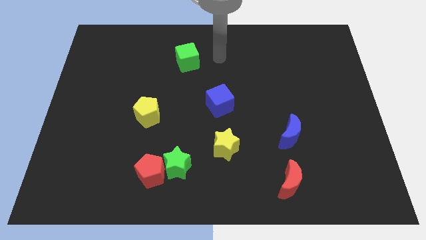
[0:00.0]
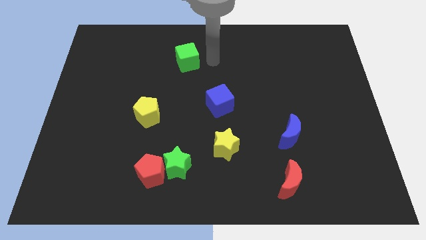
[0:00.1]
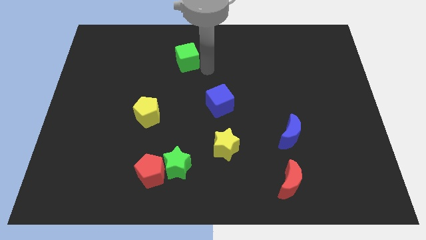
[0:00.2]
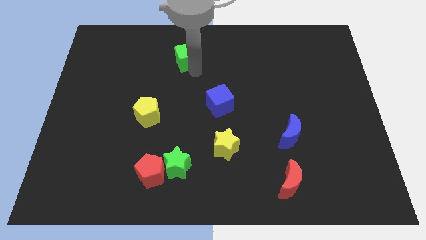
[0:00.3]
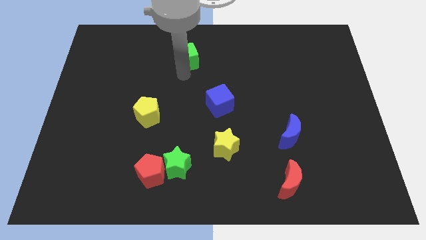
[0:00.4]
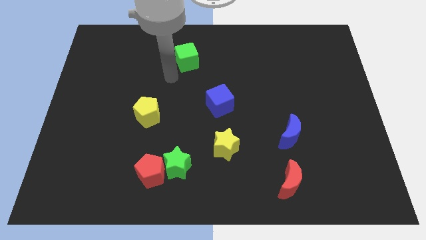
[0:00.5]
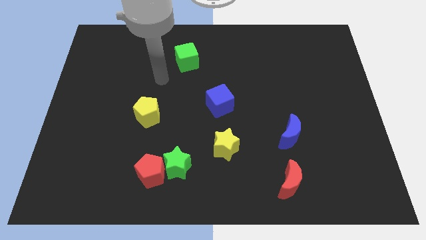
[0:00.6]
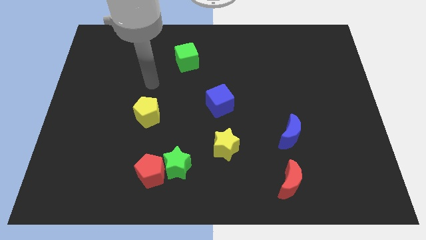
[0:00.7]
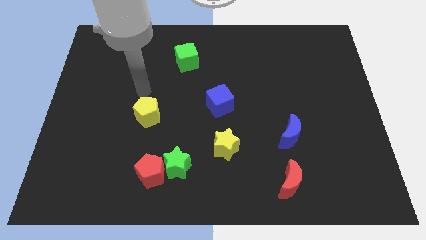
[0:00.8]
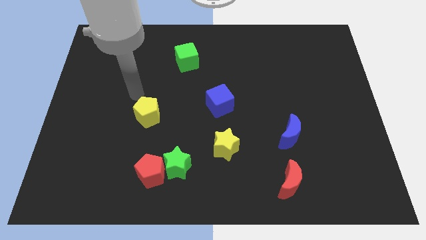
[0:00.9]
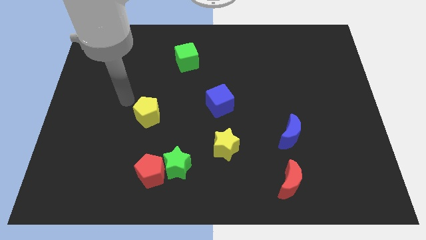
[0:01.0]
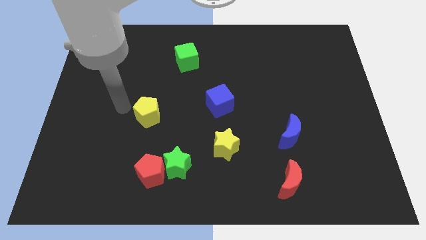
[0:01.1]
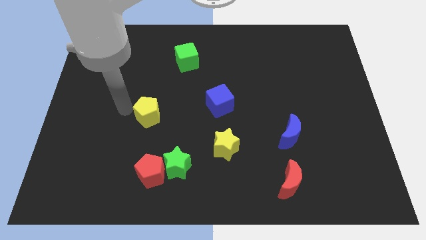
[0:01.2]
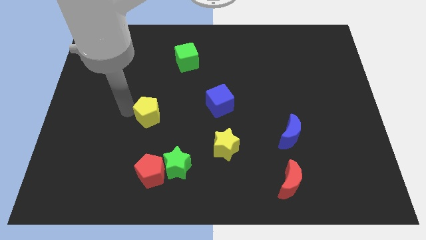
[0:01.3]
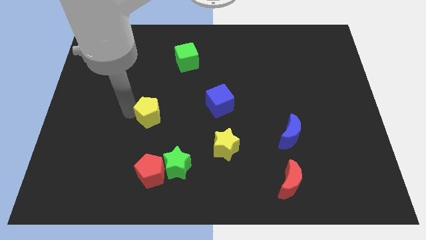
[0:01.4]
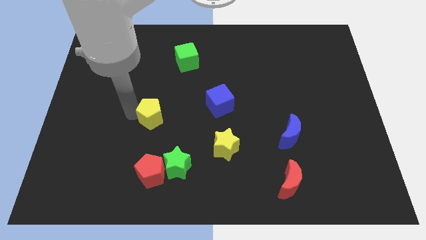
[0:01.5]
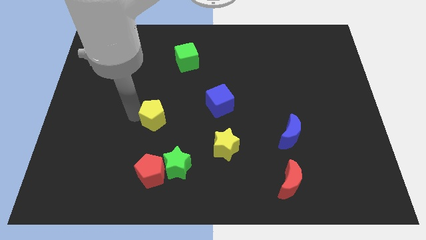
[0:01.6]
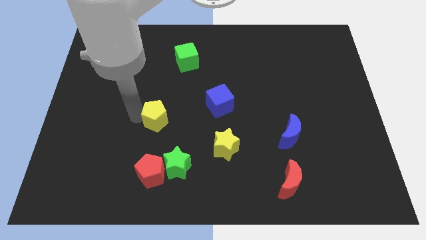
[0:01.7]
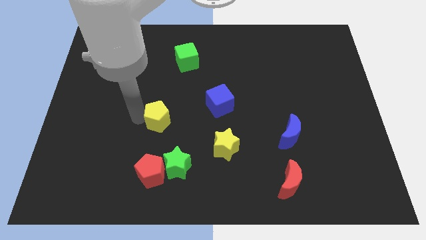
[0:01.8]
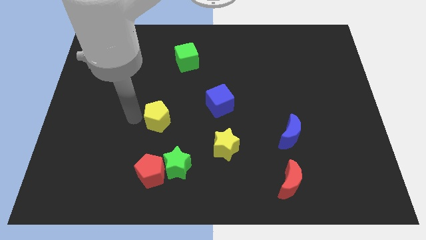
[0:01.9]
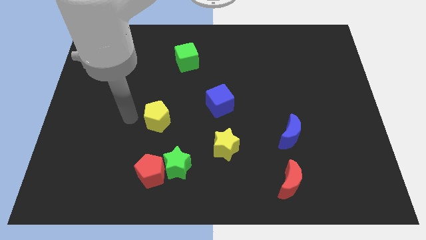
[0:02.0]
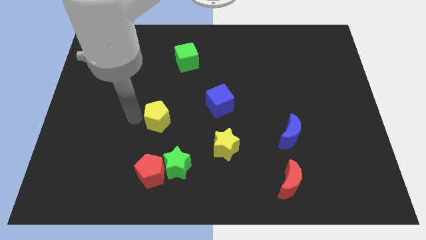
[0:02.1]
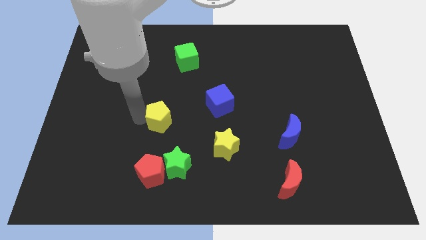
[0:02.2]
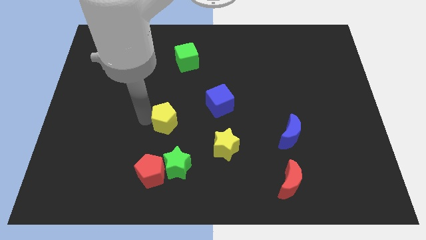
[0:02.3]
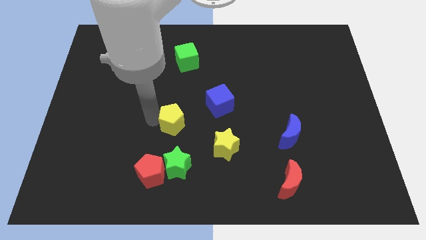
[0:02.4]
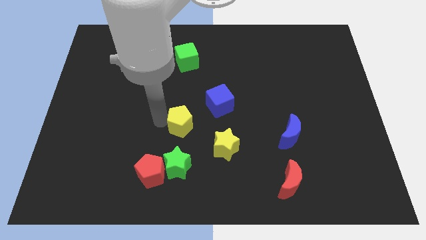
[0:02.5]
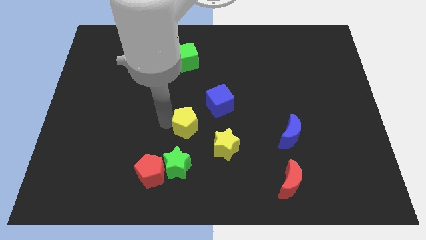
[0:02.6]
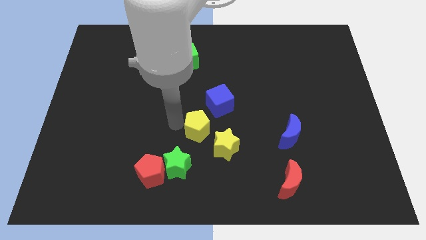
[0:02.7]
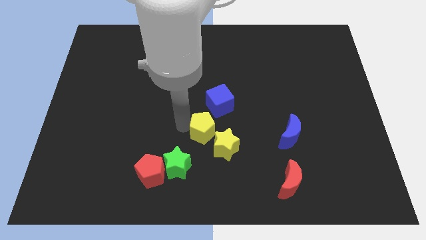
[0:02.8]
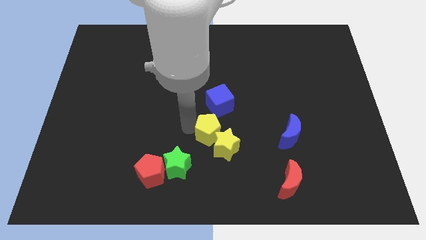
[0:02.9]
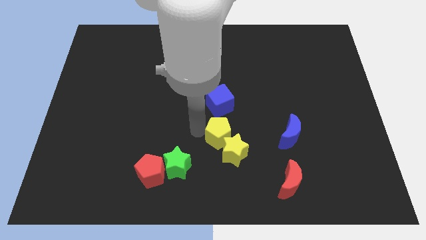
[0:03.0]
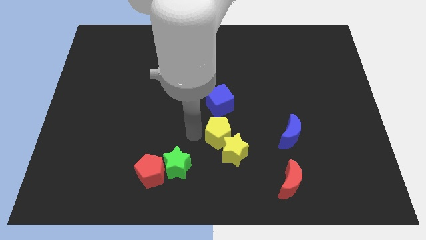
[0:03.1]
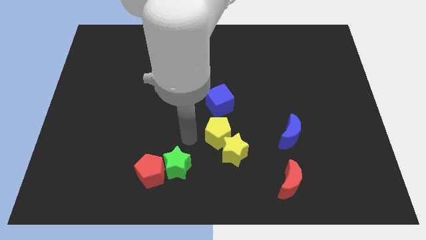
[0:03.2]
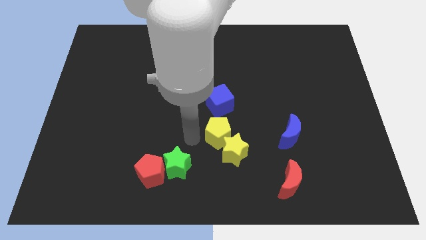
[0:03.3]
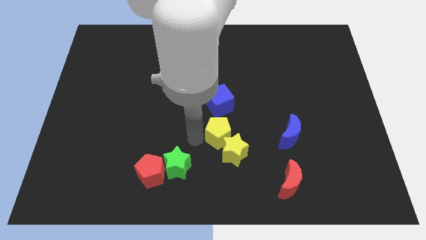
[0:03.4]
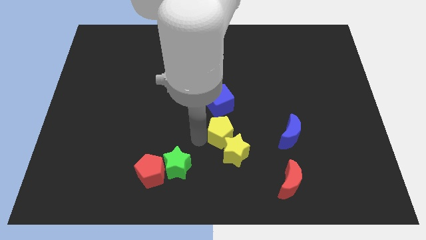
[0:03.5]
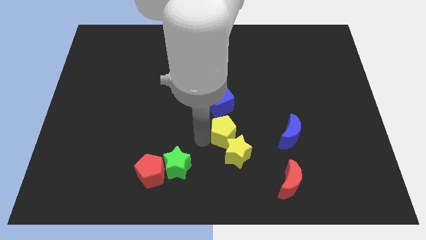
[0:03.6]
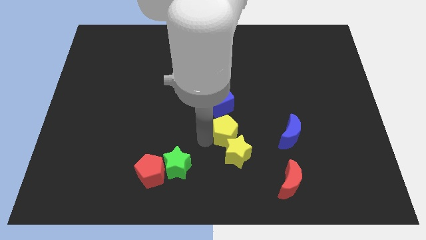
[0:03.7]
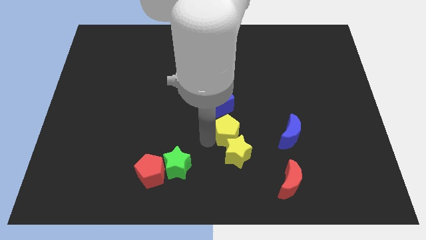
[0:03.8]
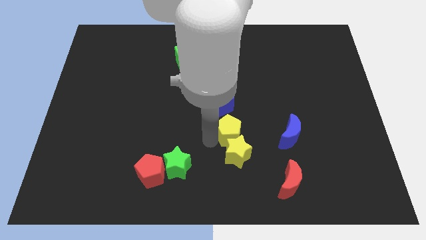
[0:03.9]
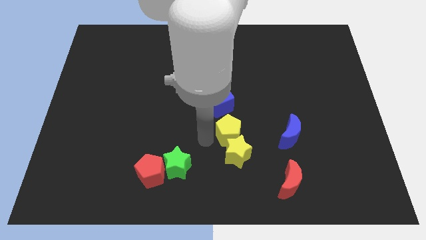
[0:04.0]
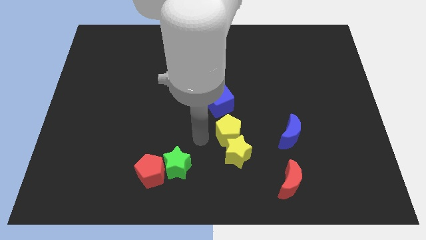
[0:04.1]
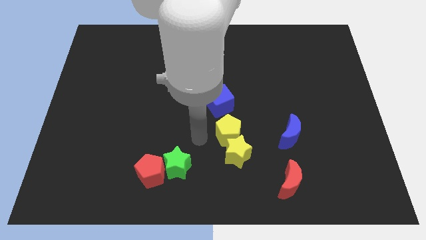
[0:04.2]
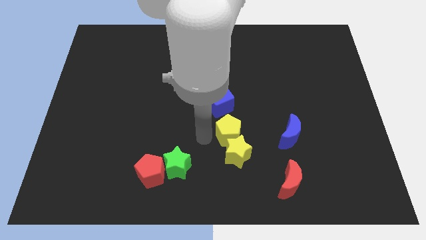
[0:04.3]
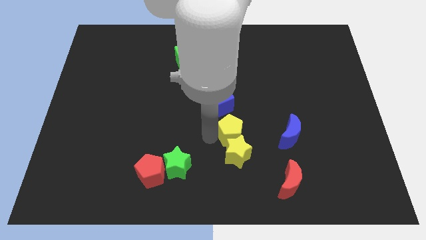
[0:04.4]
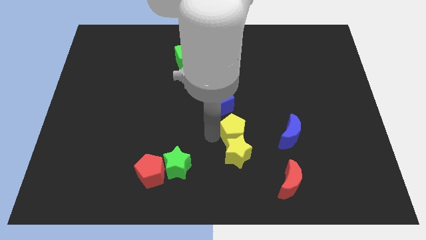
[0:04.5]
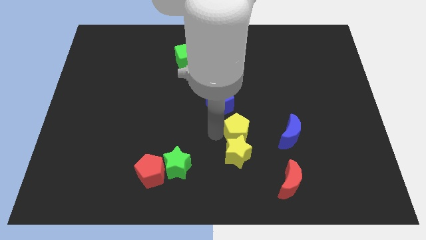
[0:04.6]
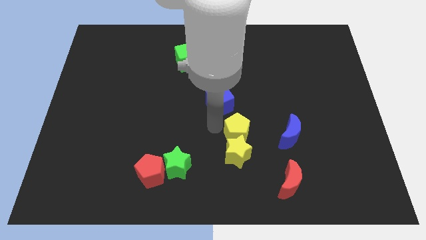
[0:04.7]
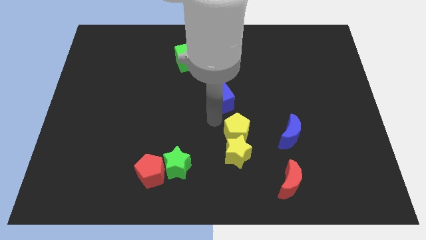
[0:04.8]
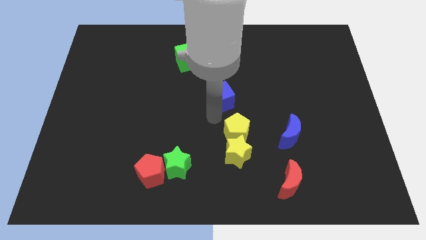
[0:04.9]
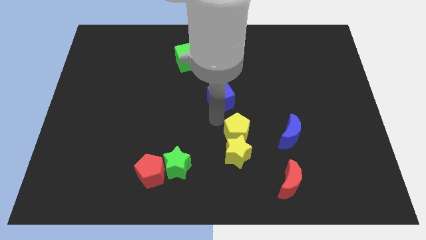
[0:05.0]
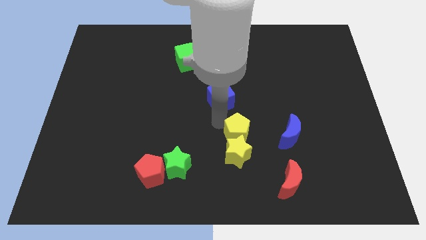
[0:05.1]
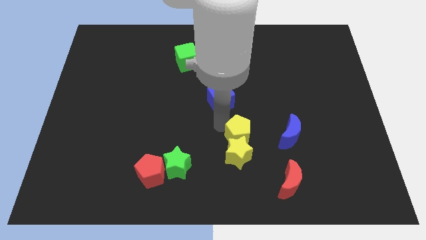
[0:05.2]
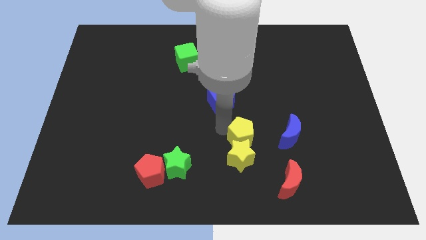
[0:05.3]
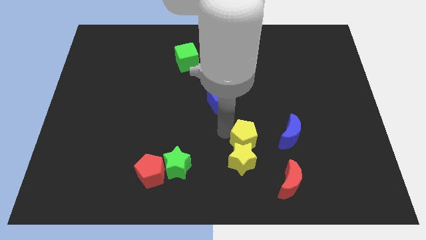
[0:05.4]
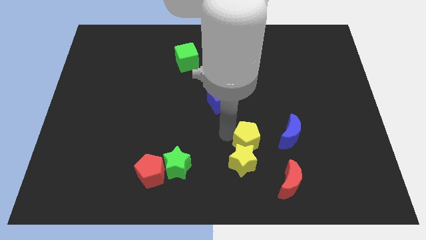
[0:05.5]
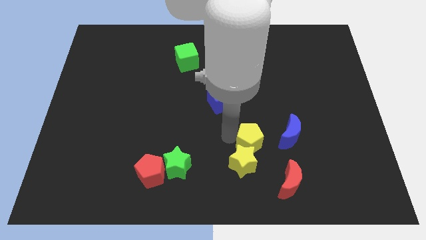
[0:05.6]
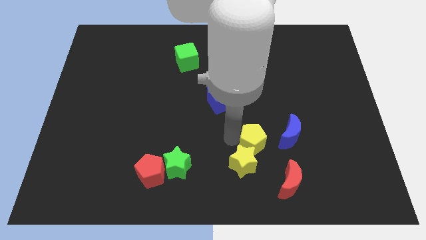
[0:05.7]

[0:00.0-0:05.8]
slide the yellow pentagon to the bottom left side of the blue moon
